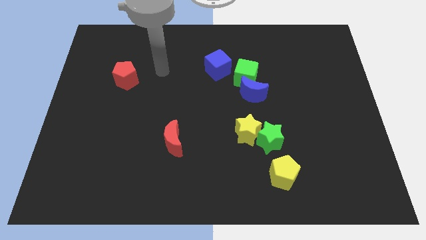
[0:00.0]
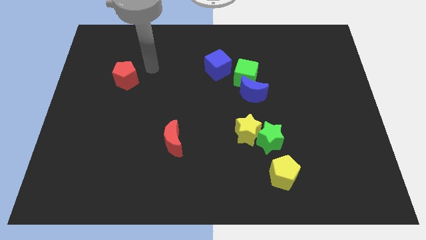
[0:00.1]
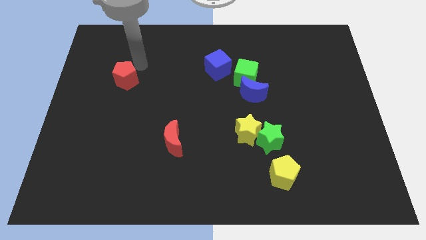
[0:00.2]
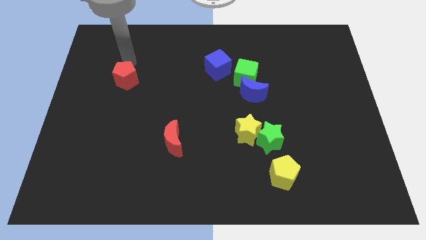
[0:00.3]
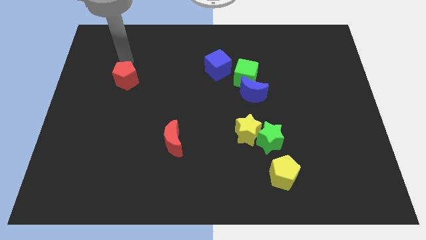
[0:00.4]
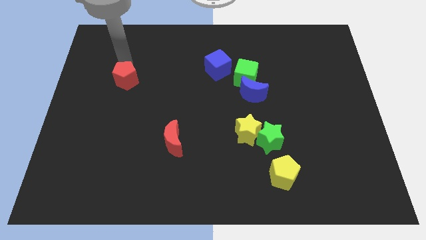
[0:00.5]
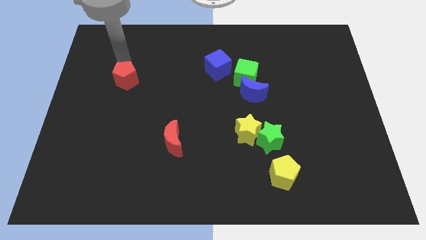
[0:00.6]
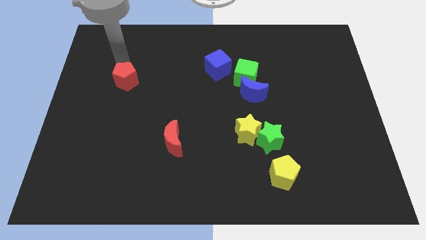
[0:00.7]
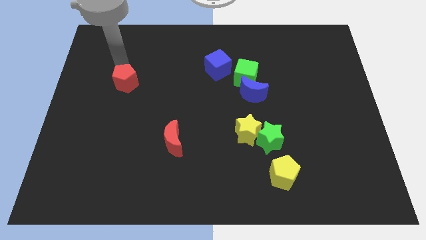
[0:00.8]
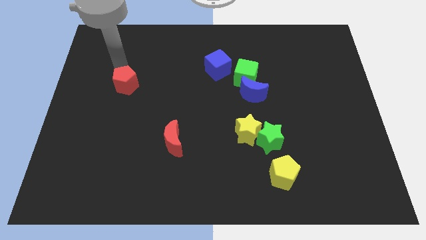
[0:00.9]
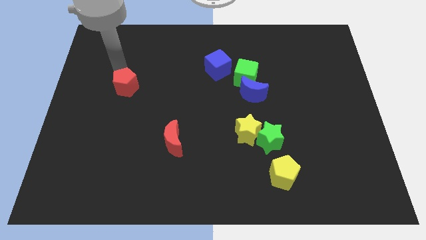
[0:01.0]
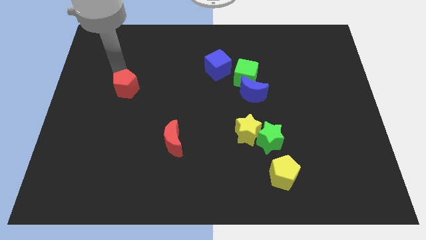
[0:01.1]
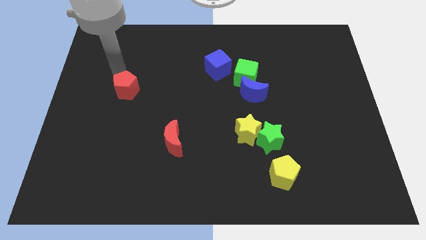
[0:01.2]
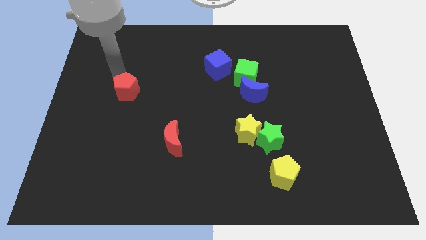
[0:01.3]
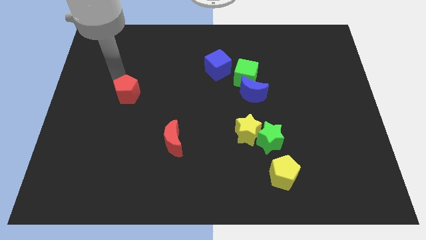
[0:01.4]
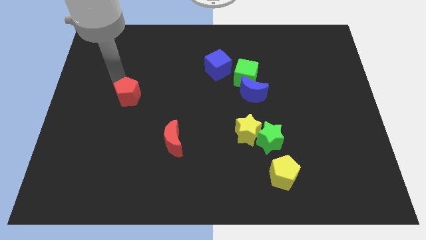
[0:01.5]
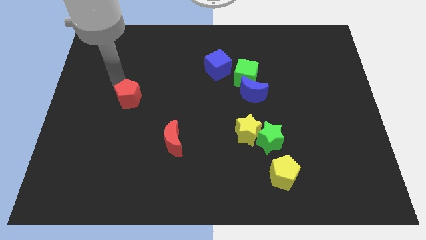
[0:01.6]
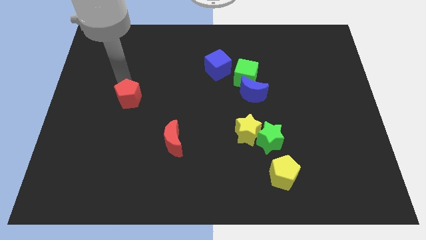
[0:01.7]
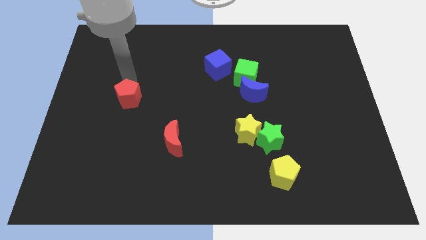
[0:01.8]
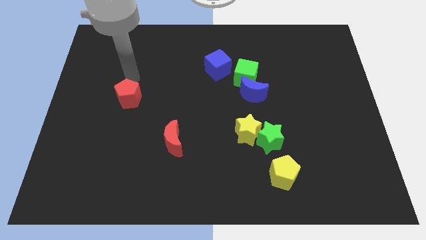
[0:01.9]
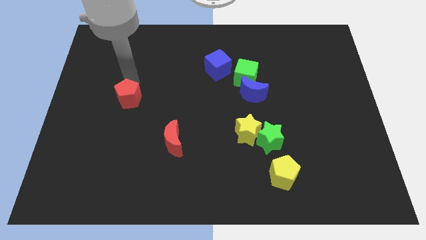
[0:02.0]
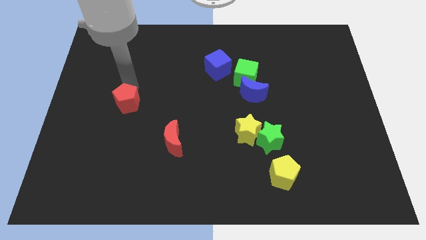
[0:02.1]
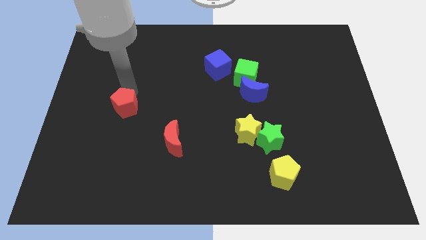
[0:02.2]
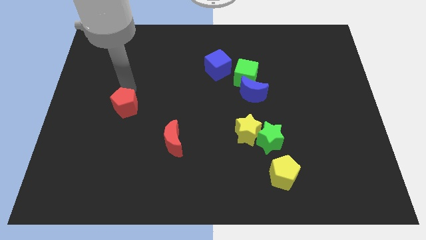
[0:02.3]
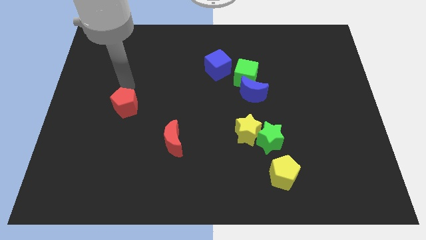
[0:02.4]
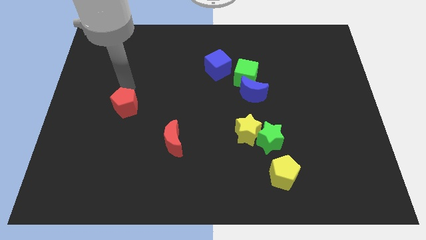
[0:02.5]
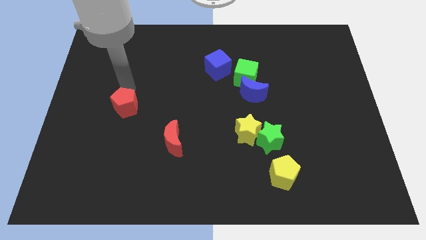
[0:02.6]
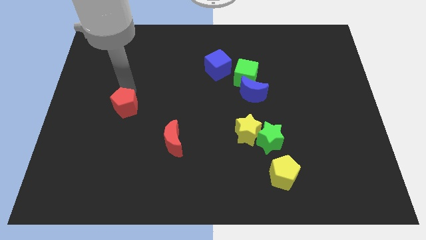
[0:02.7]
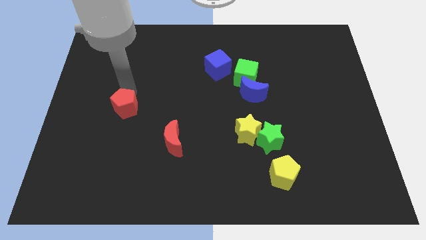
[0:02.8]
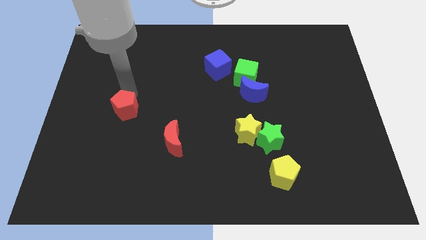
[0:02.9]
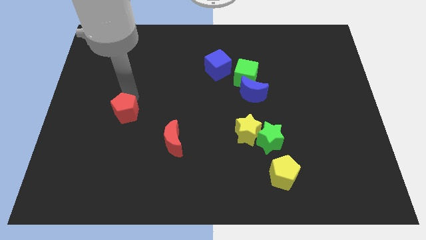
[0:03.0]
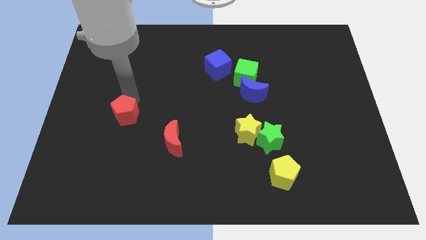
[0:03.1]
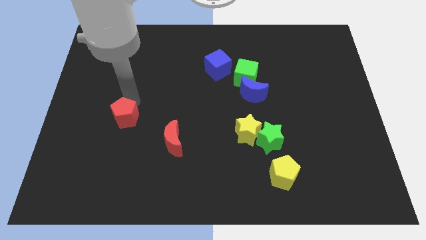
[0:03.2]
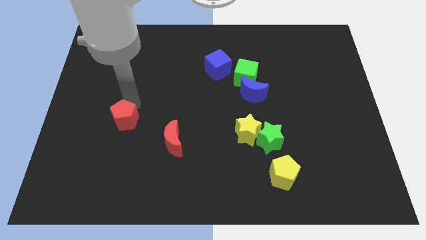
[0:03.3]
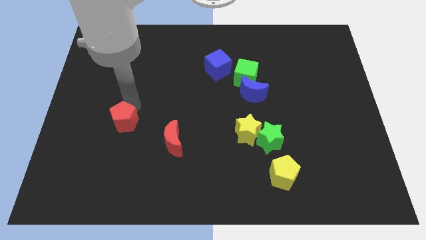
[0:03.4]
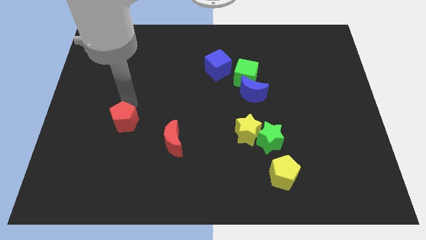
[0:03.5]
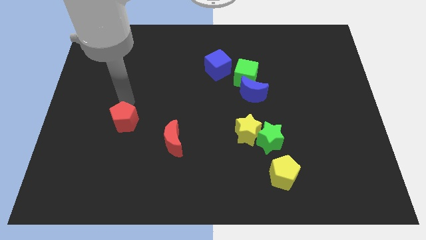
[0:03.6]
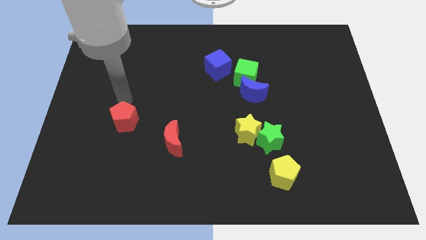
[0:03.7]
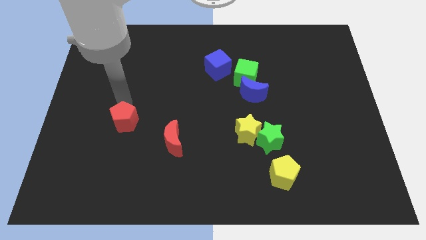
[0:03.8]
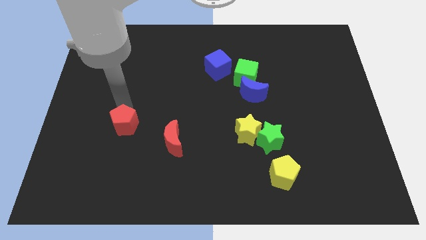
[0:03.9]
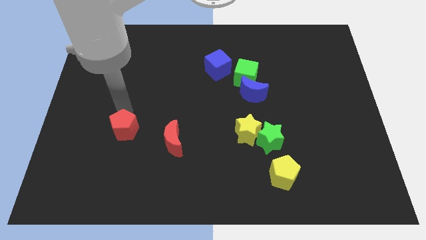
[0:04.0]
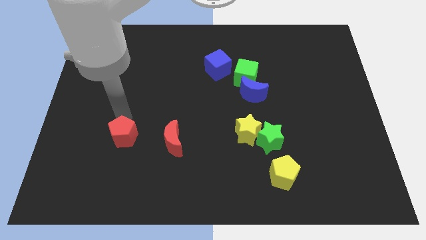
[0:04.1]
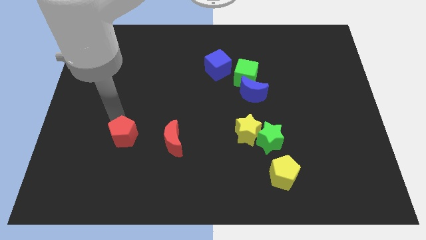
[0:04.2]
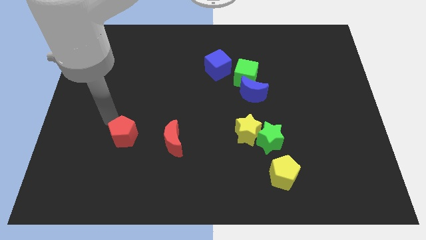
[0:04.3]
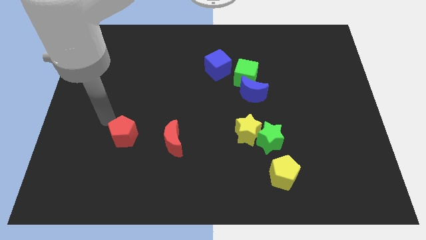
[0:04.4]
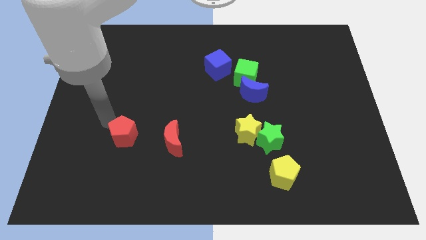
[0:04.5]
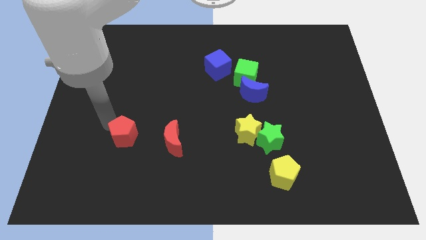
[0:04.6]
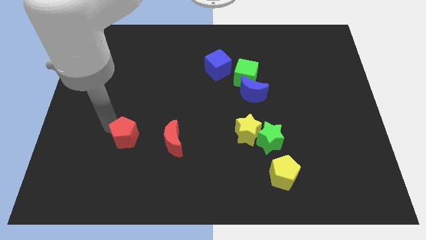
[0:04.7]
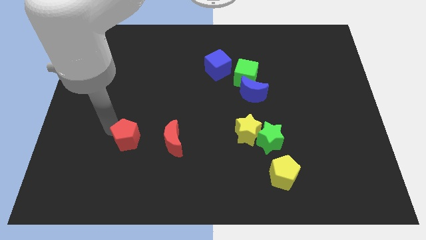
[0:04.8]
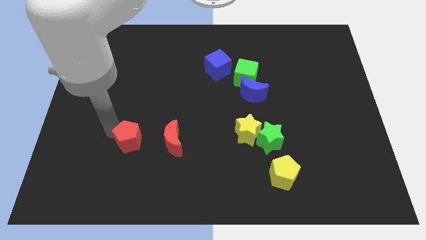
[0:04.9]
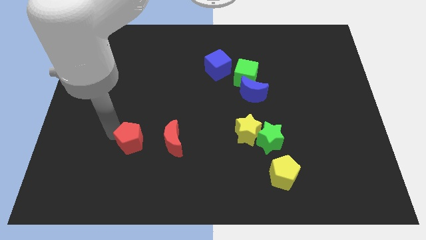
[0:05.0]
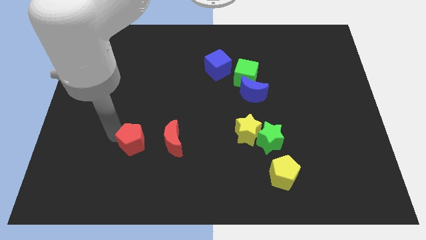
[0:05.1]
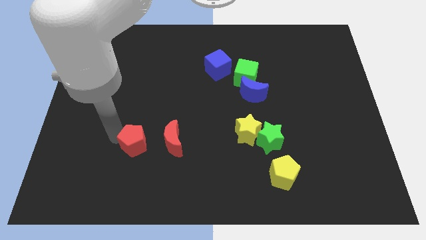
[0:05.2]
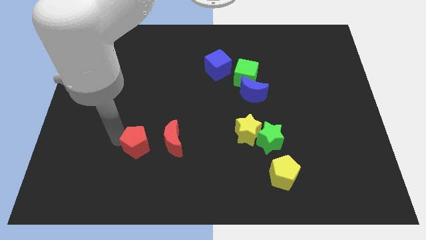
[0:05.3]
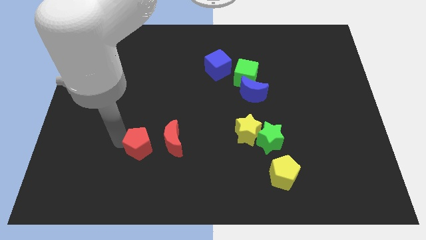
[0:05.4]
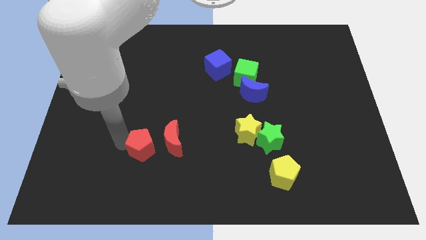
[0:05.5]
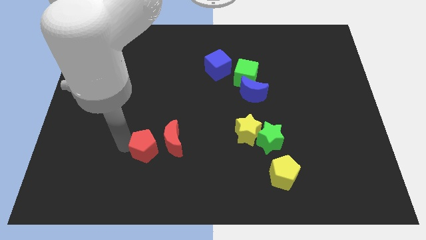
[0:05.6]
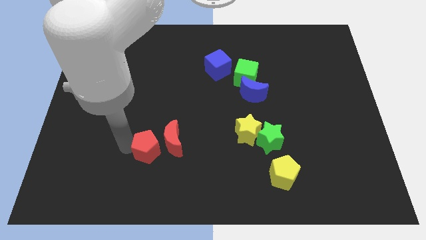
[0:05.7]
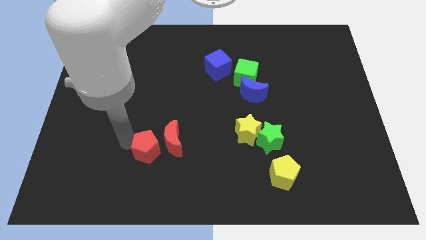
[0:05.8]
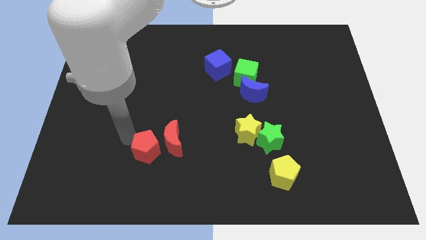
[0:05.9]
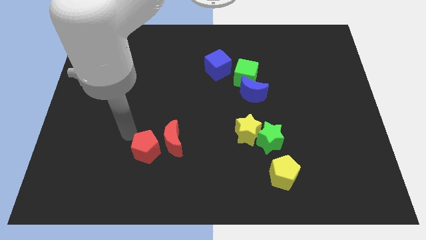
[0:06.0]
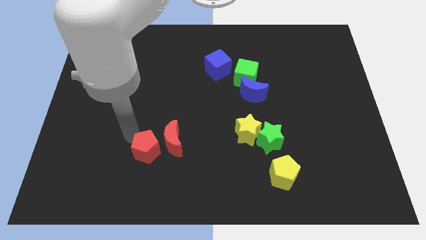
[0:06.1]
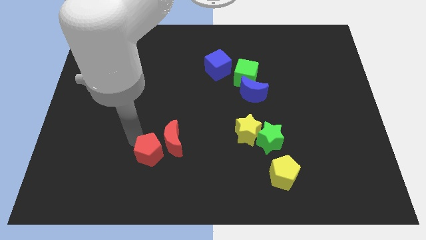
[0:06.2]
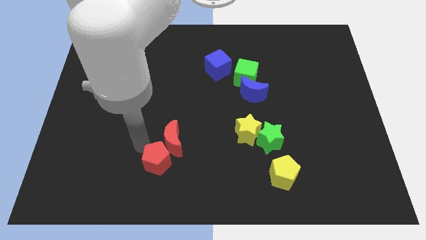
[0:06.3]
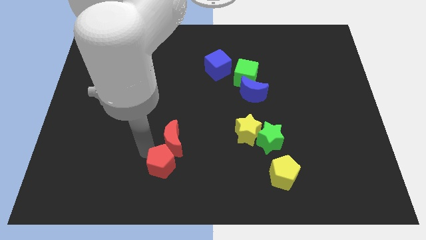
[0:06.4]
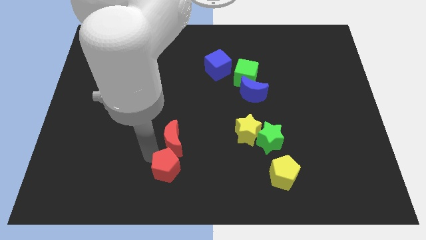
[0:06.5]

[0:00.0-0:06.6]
put the red pentagon to the bottom side
